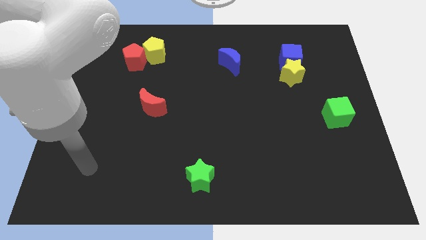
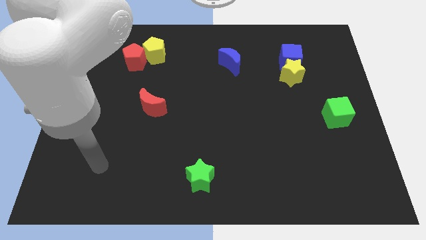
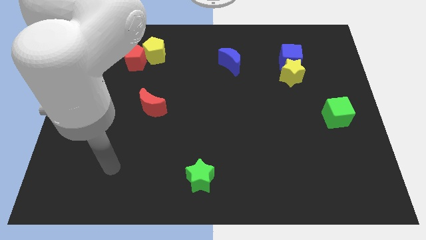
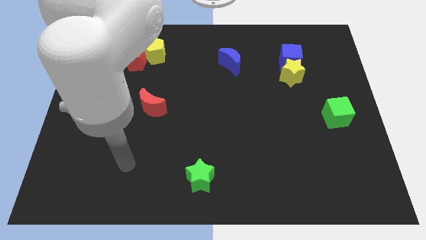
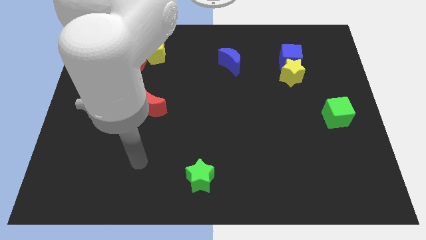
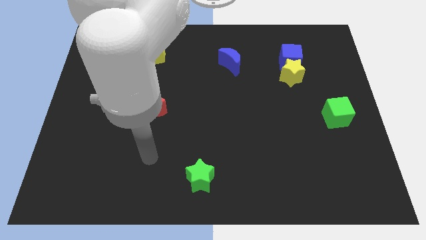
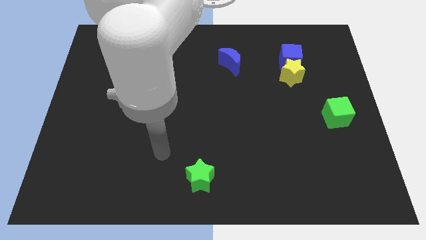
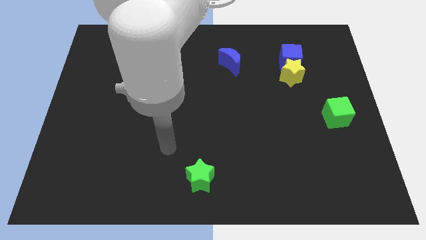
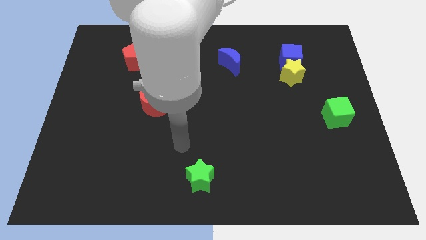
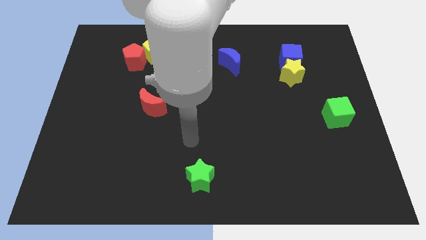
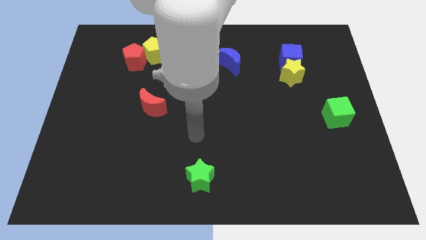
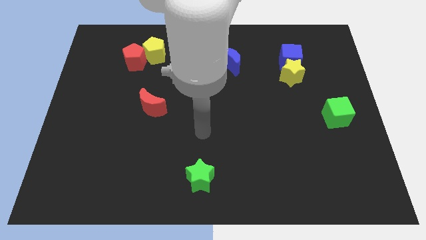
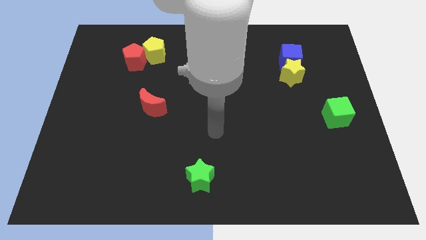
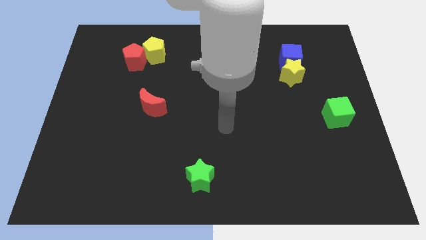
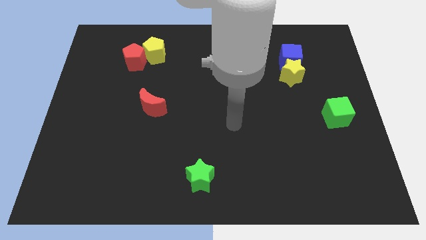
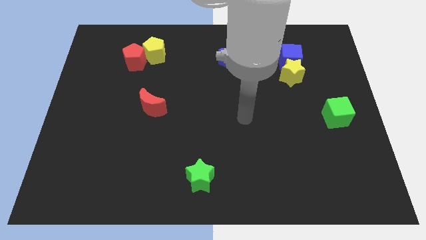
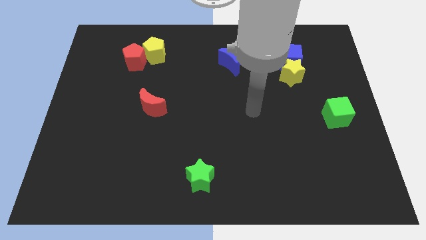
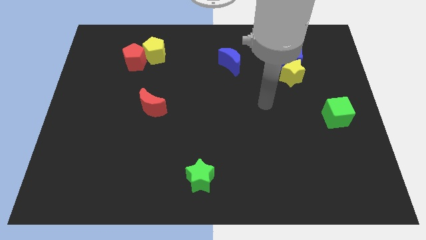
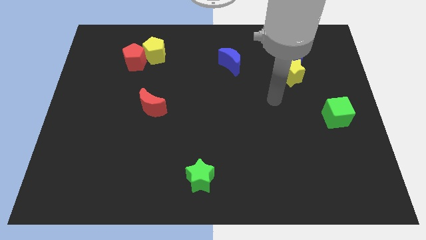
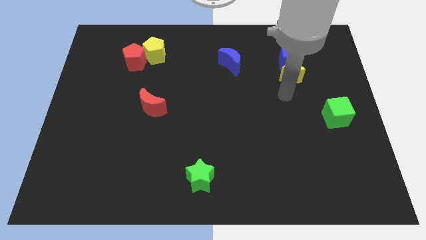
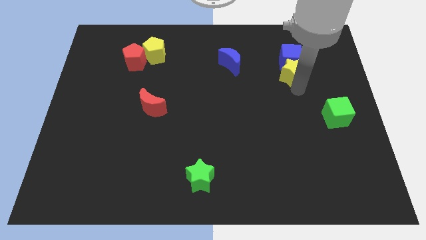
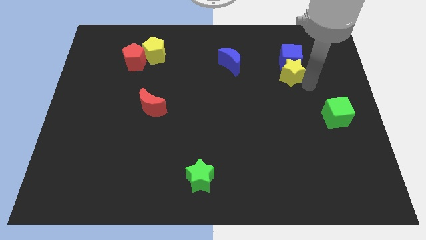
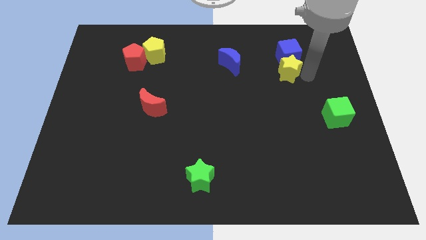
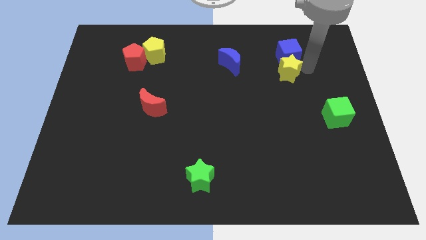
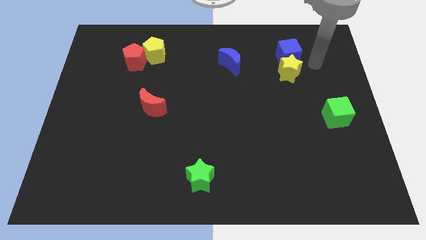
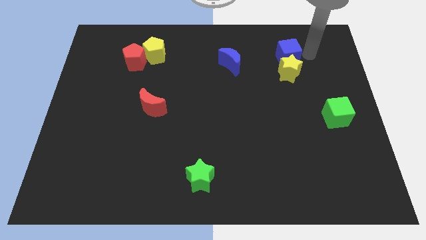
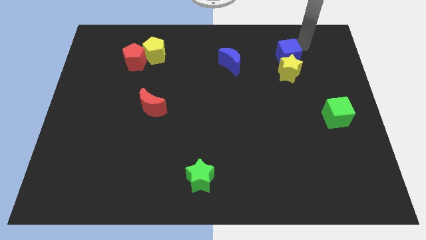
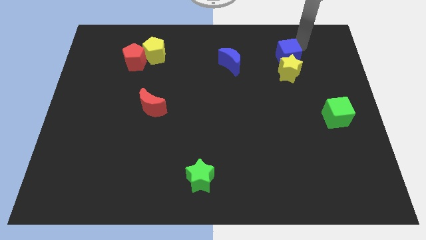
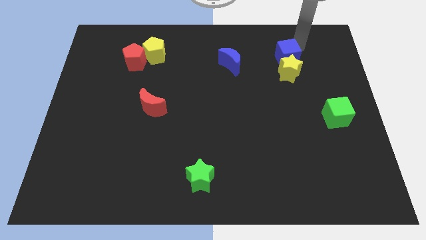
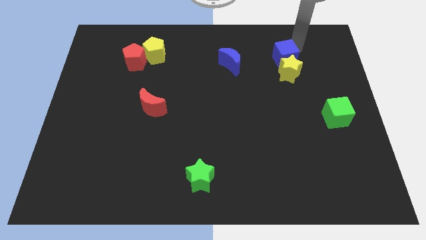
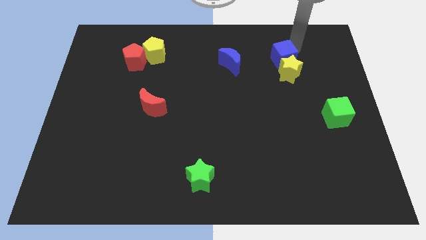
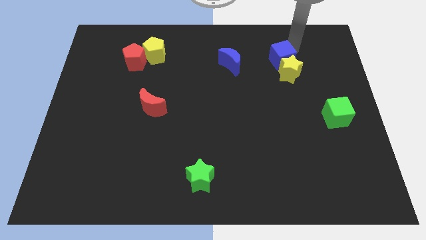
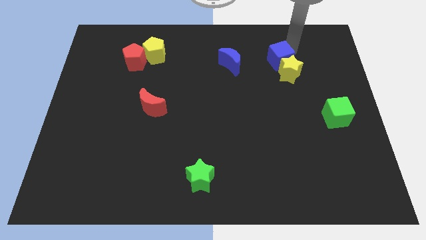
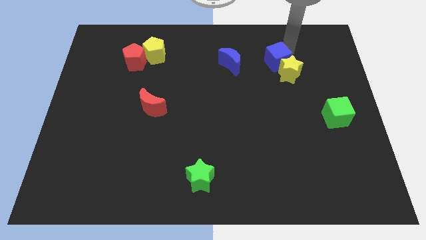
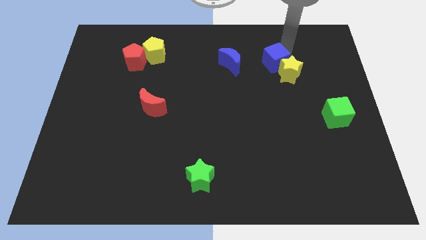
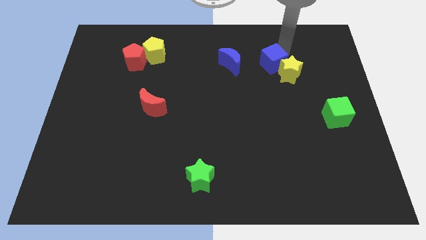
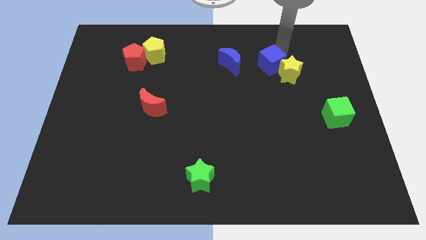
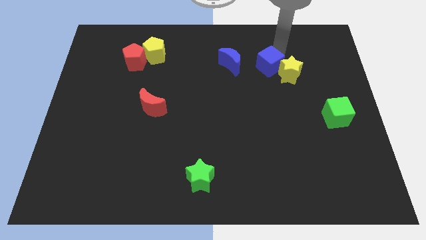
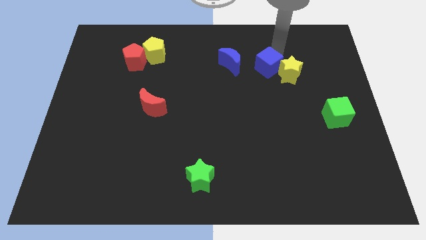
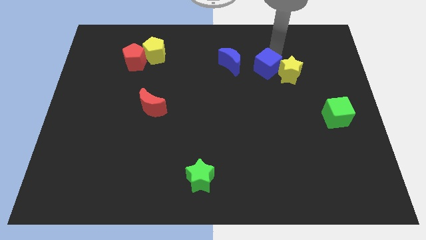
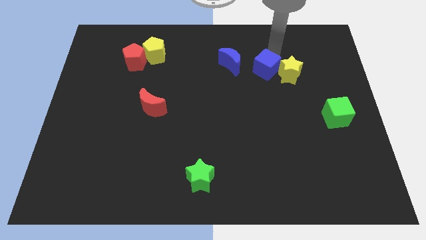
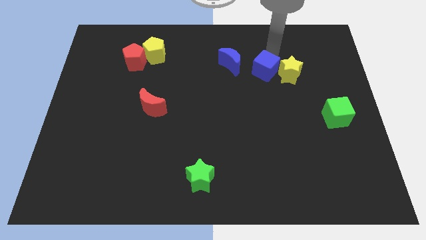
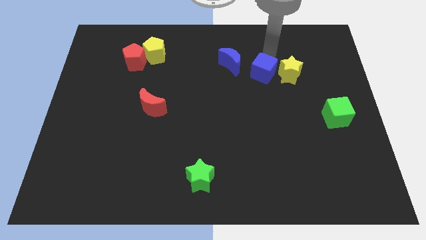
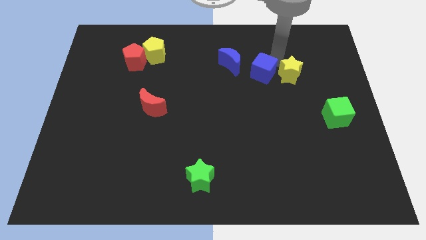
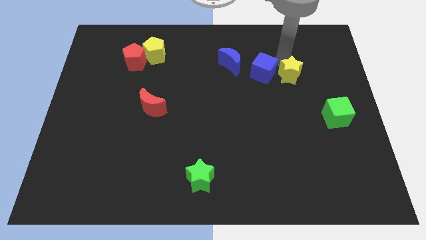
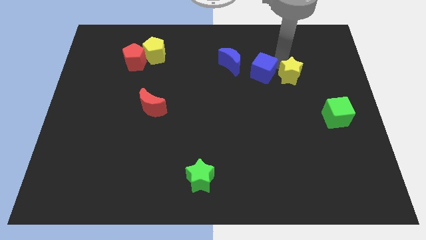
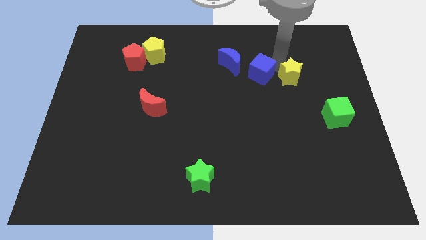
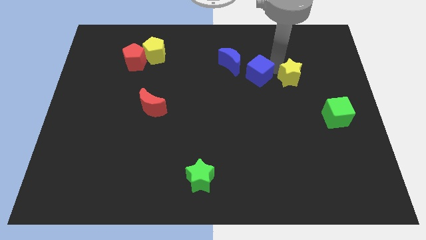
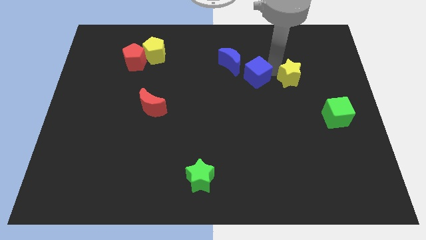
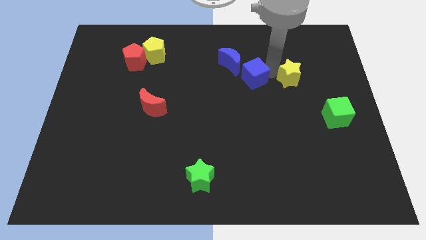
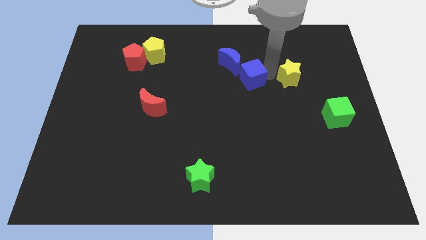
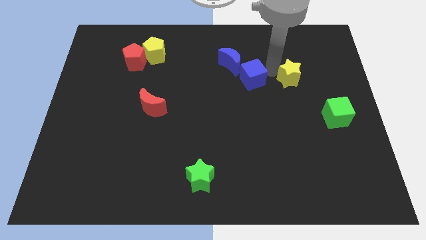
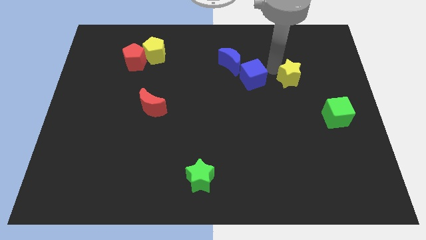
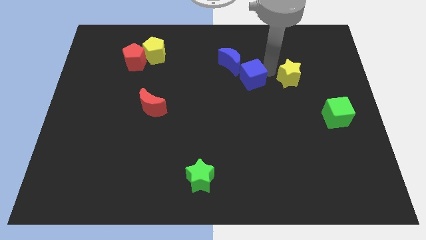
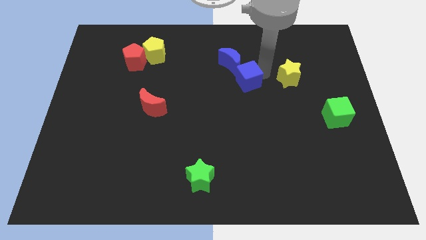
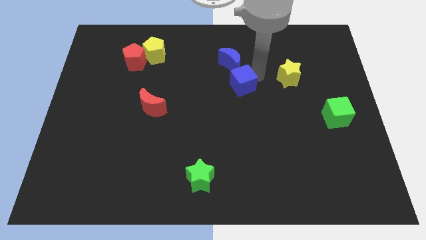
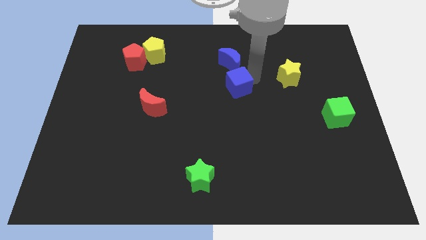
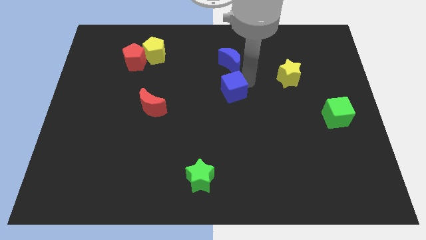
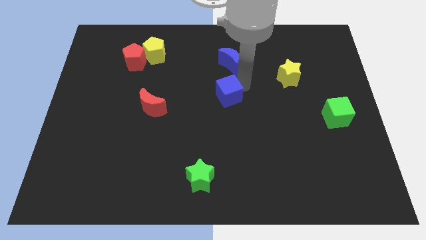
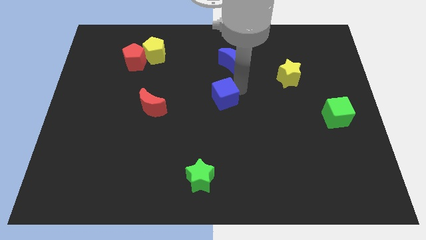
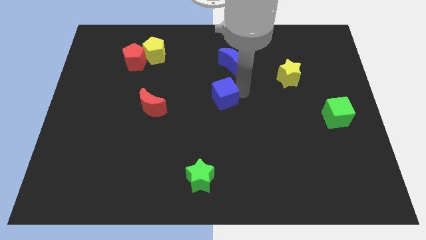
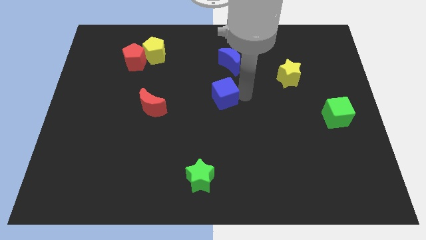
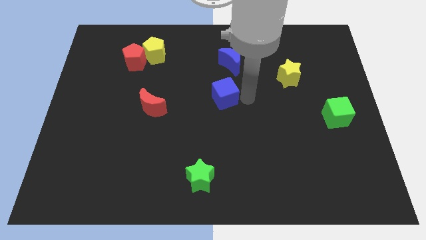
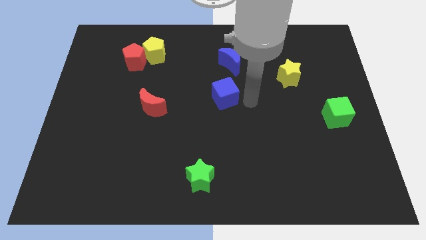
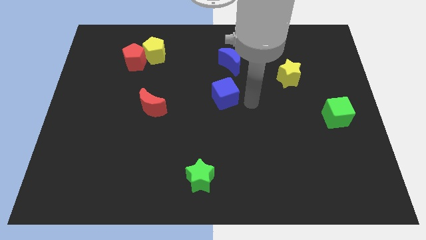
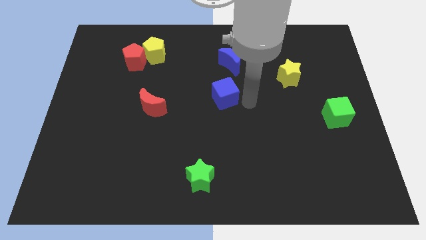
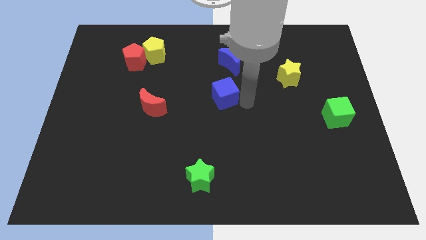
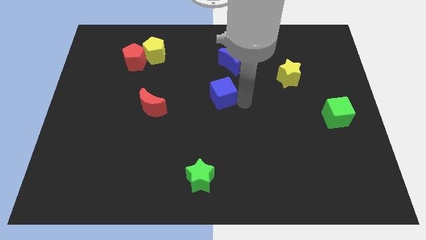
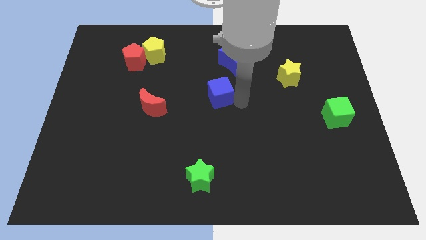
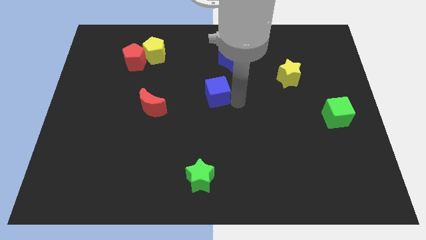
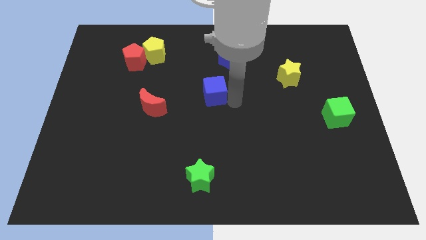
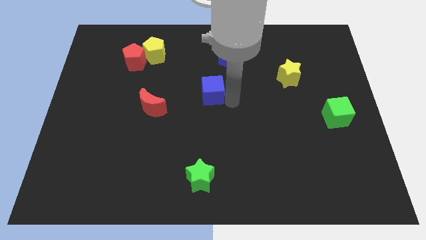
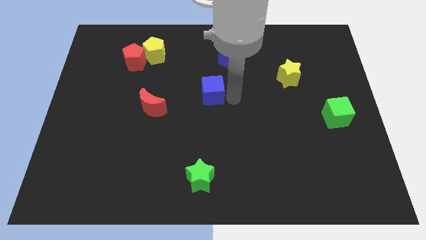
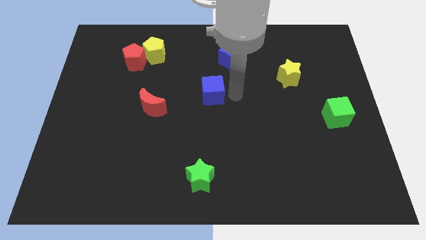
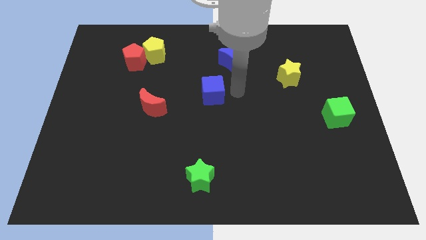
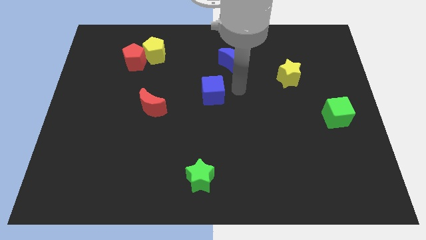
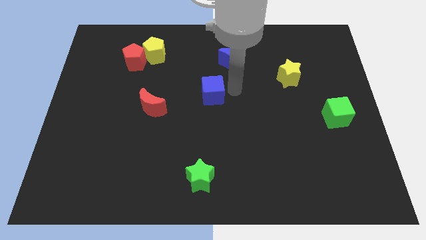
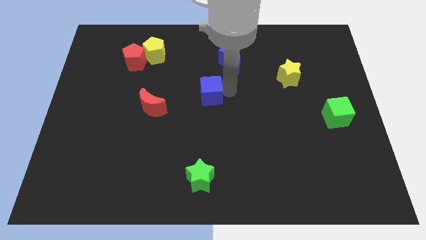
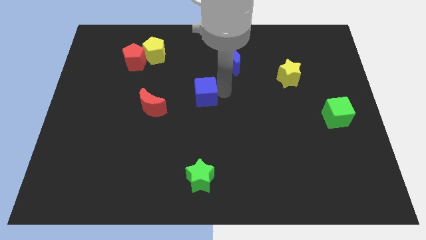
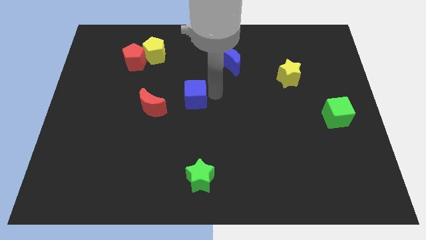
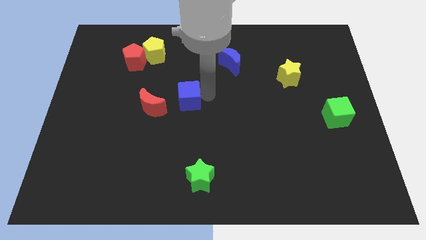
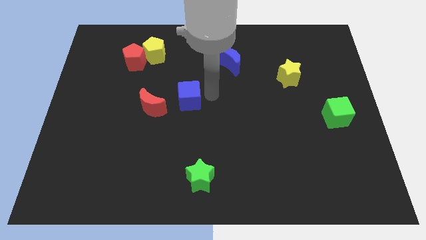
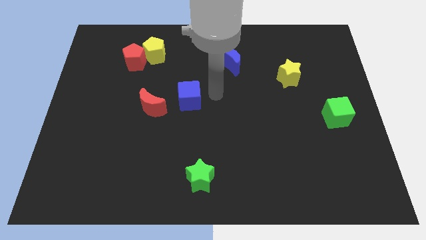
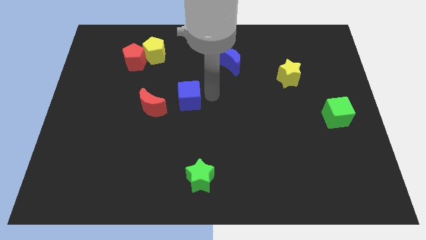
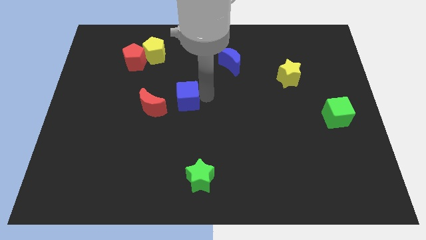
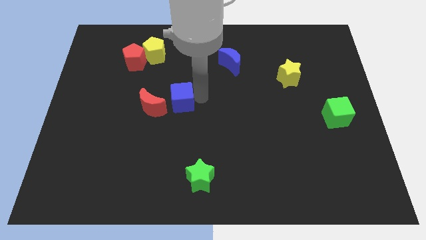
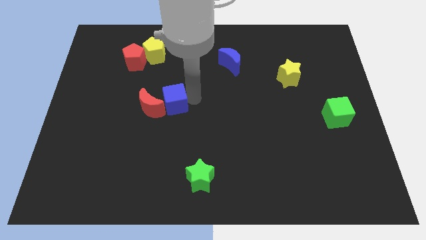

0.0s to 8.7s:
push the blue cube towards the red moon
